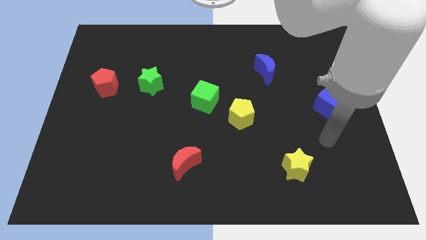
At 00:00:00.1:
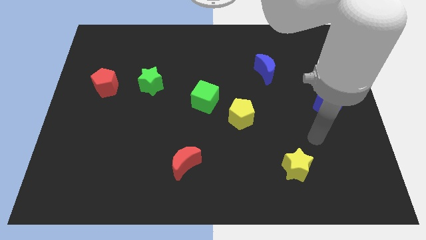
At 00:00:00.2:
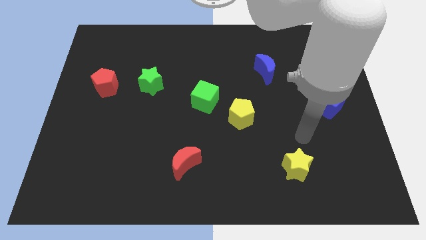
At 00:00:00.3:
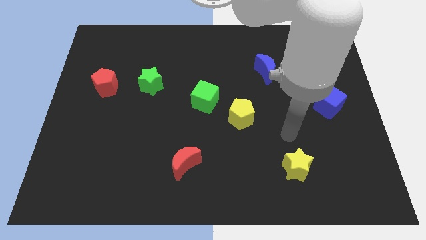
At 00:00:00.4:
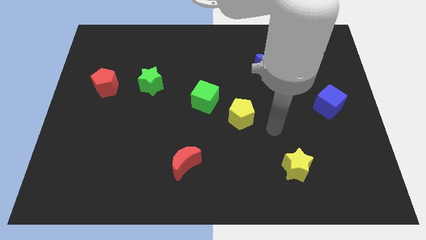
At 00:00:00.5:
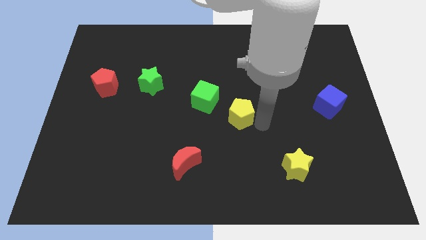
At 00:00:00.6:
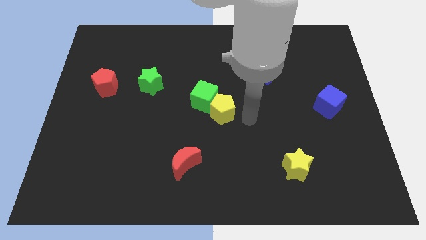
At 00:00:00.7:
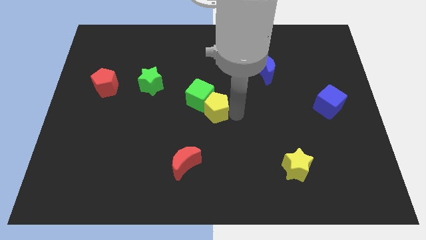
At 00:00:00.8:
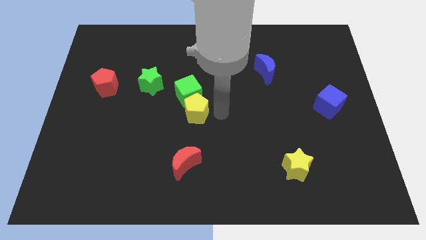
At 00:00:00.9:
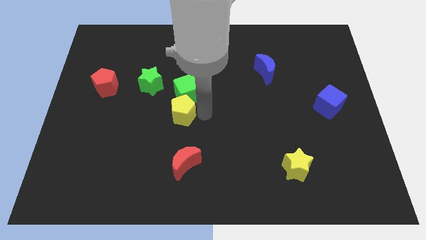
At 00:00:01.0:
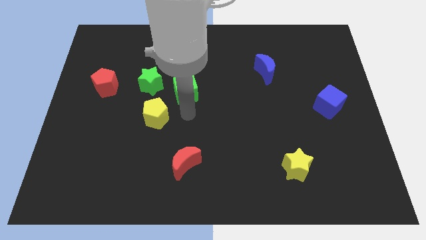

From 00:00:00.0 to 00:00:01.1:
move the green cube away from the yellow pentagon

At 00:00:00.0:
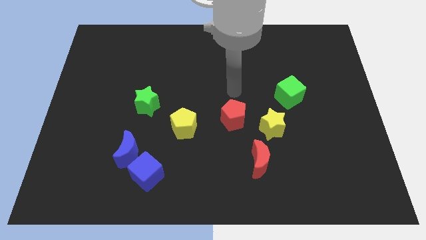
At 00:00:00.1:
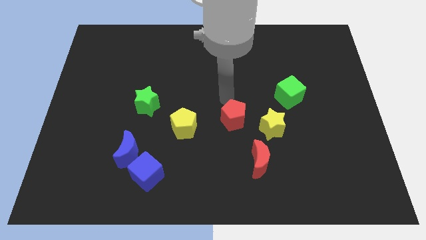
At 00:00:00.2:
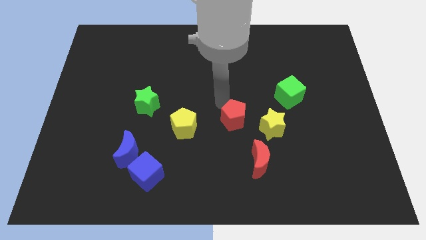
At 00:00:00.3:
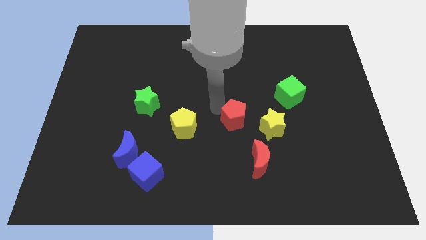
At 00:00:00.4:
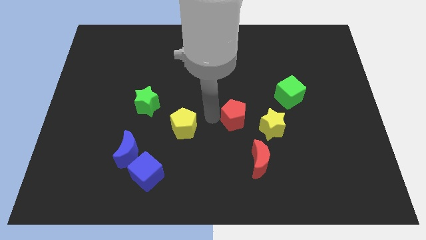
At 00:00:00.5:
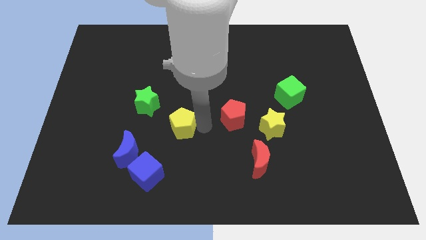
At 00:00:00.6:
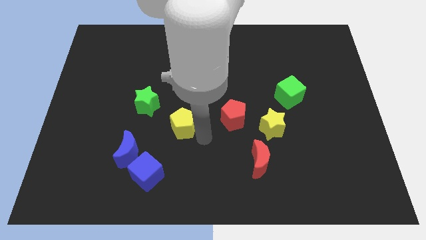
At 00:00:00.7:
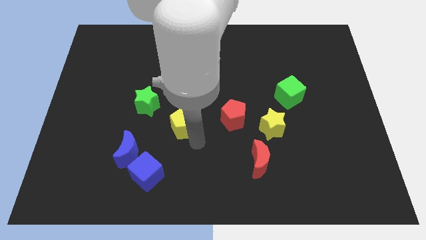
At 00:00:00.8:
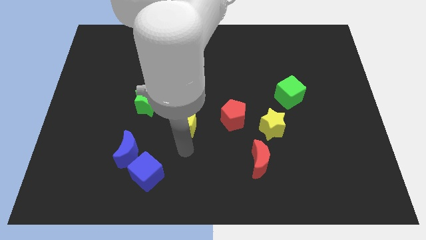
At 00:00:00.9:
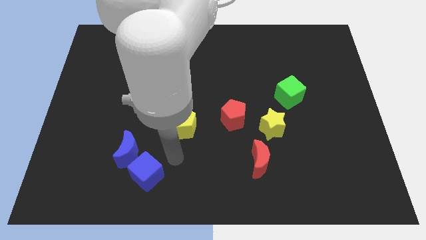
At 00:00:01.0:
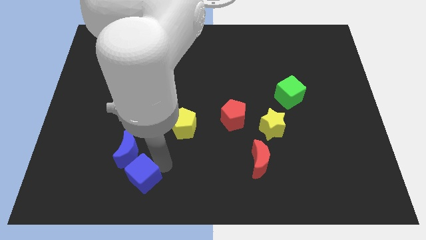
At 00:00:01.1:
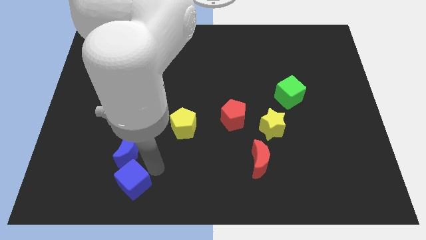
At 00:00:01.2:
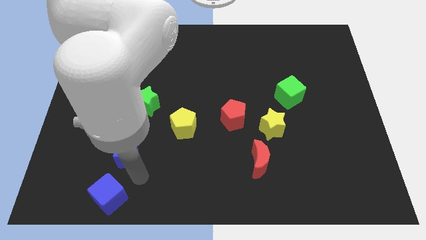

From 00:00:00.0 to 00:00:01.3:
move the blue moon away from the blue cube

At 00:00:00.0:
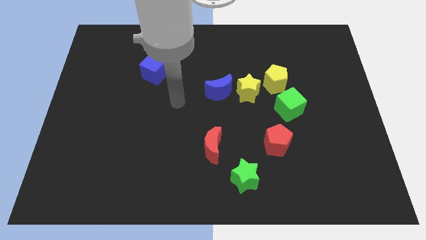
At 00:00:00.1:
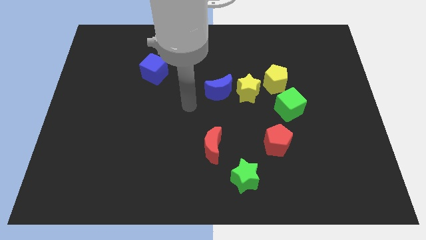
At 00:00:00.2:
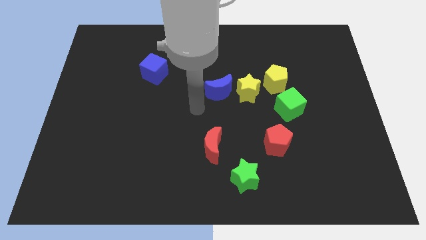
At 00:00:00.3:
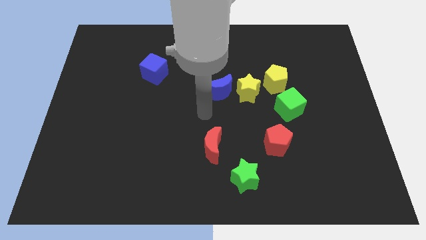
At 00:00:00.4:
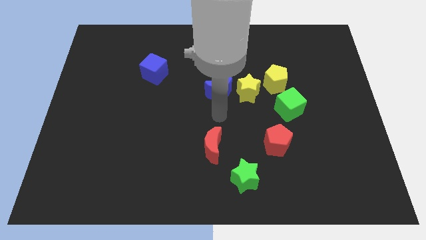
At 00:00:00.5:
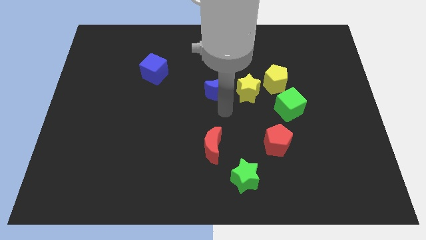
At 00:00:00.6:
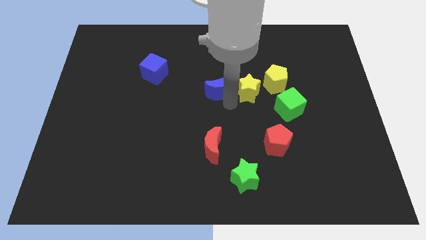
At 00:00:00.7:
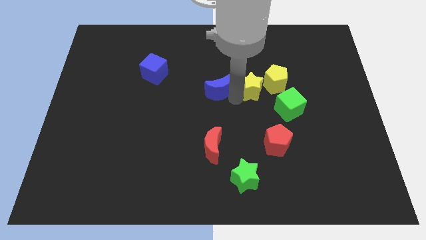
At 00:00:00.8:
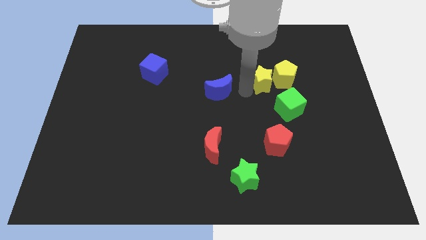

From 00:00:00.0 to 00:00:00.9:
move the blue moon away from the yellow star

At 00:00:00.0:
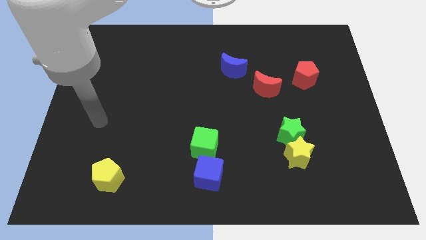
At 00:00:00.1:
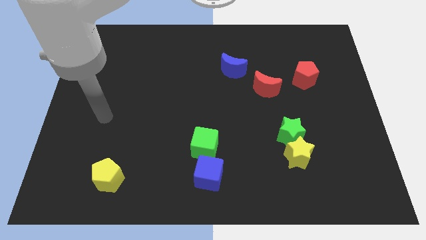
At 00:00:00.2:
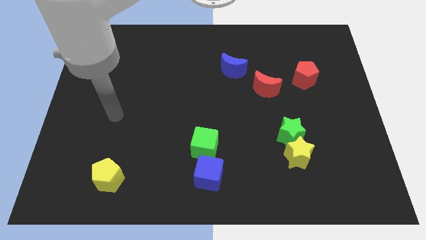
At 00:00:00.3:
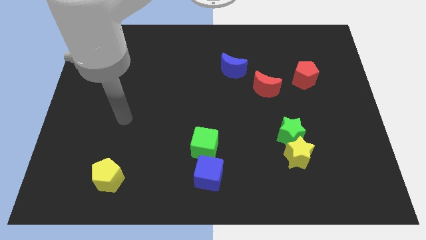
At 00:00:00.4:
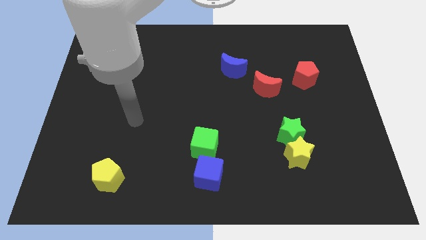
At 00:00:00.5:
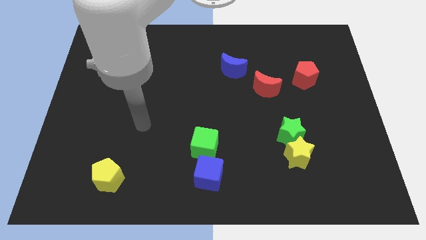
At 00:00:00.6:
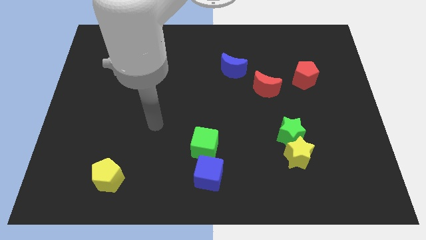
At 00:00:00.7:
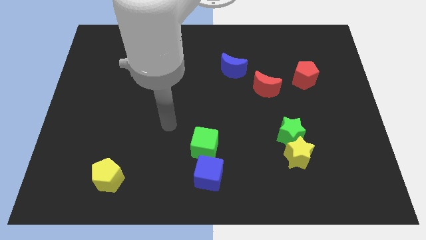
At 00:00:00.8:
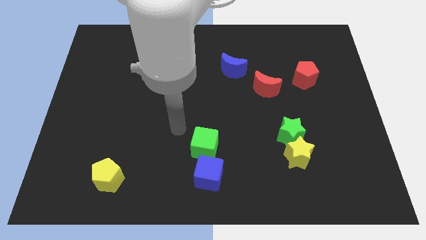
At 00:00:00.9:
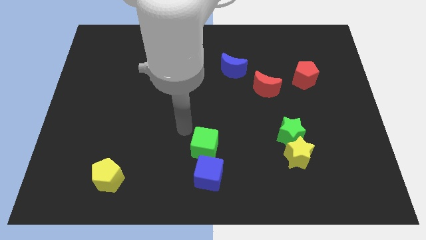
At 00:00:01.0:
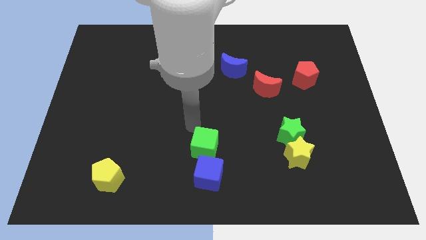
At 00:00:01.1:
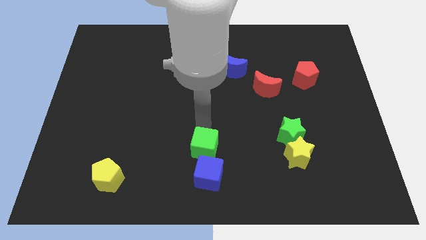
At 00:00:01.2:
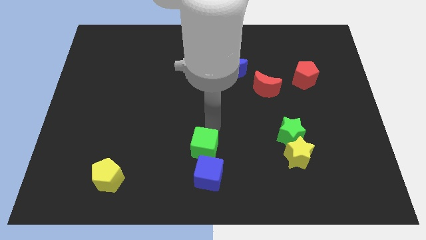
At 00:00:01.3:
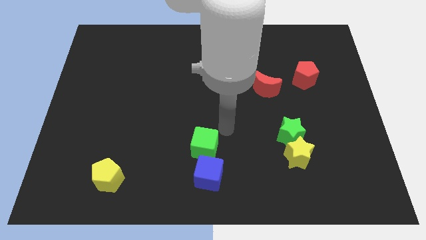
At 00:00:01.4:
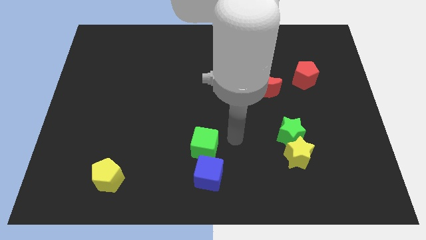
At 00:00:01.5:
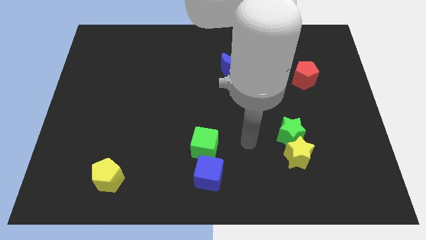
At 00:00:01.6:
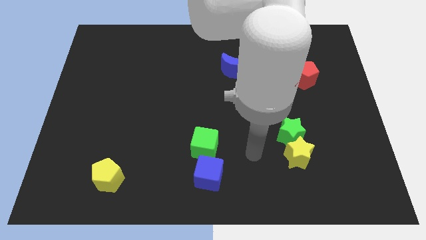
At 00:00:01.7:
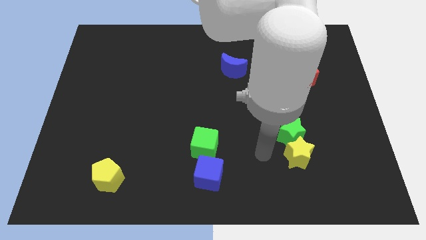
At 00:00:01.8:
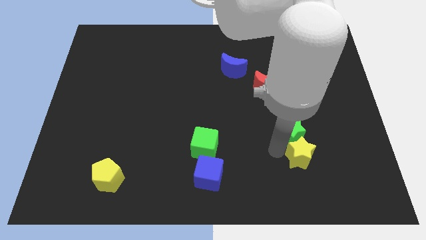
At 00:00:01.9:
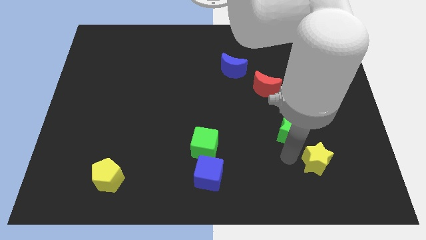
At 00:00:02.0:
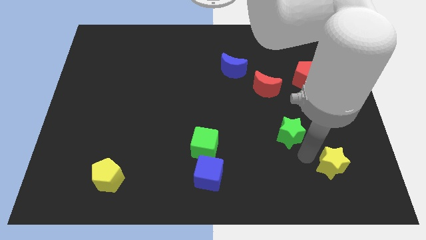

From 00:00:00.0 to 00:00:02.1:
move the green star away from the yellow star

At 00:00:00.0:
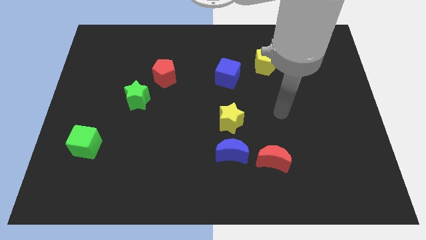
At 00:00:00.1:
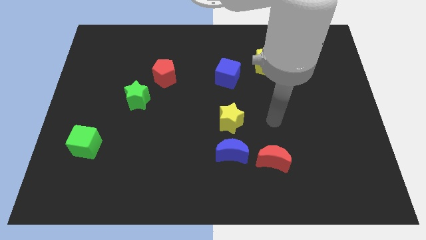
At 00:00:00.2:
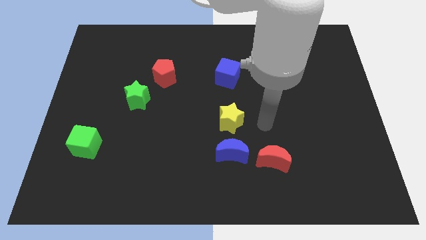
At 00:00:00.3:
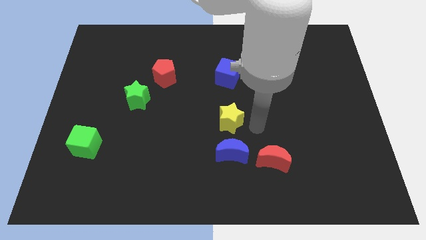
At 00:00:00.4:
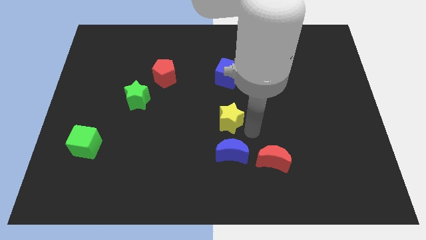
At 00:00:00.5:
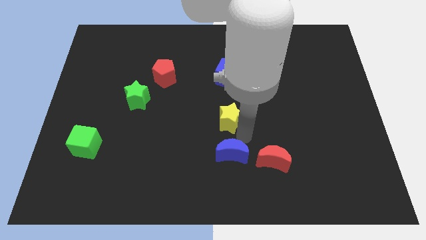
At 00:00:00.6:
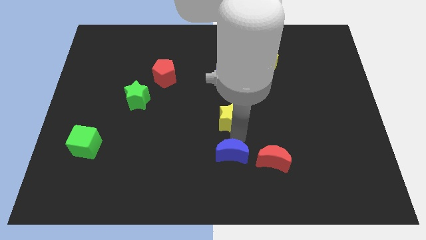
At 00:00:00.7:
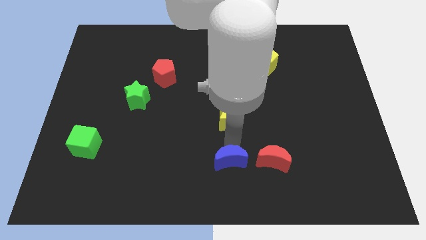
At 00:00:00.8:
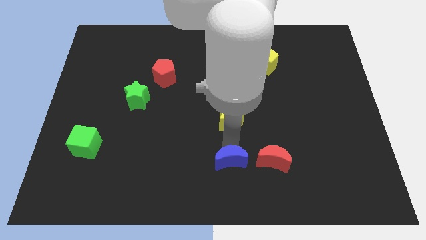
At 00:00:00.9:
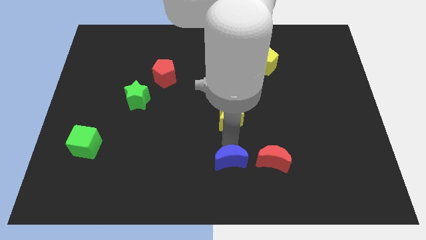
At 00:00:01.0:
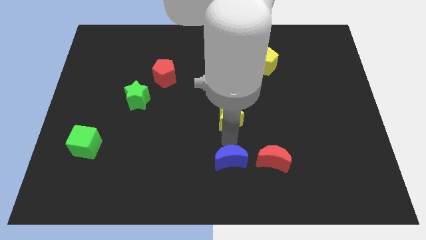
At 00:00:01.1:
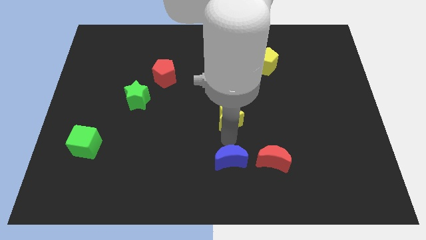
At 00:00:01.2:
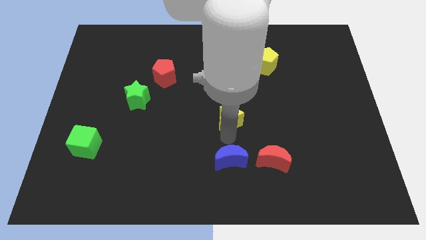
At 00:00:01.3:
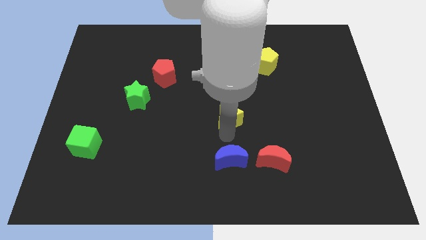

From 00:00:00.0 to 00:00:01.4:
pull the yellow star apart from the blue moon

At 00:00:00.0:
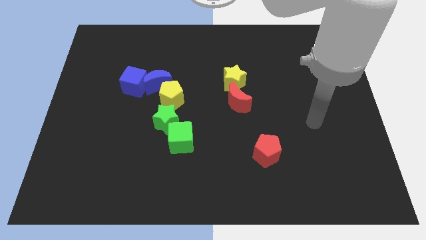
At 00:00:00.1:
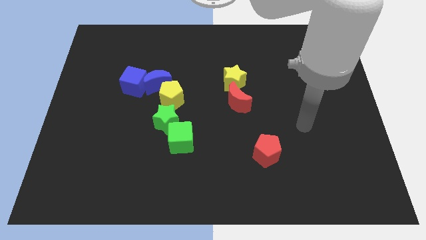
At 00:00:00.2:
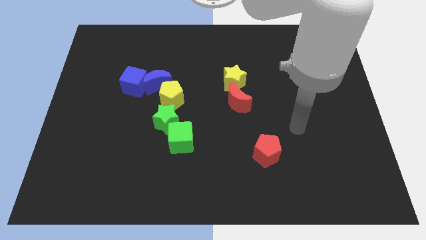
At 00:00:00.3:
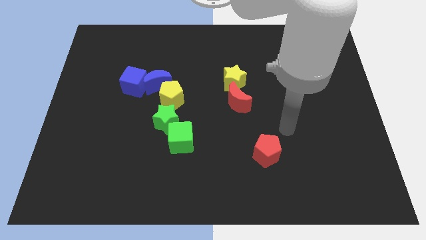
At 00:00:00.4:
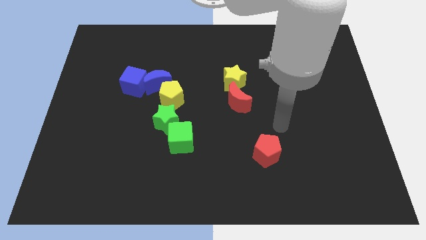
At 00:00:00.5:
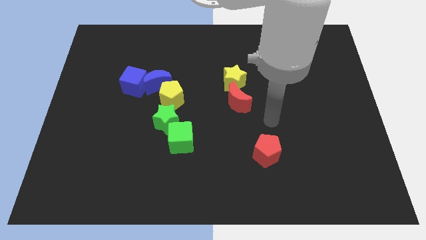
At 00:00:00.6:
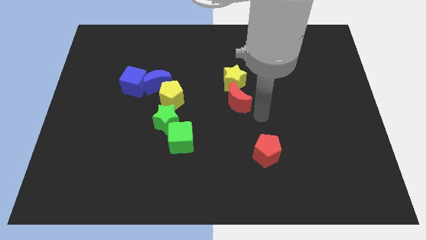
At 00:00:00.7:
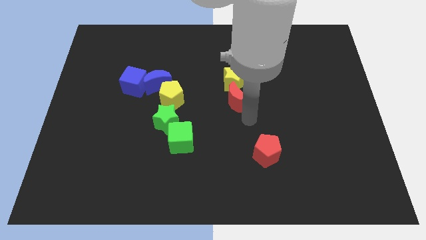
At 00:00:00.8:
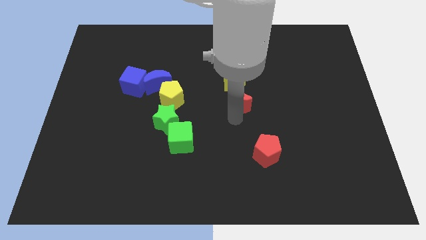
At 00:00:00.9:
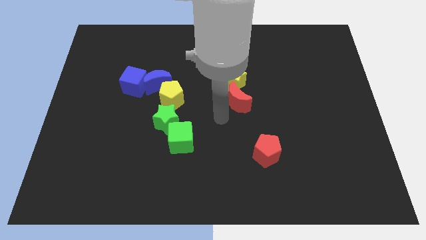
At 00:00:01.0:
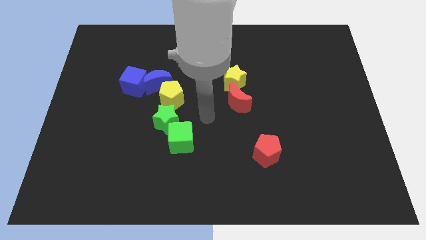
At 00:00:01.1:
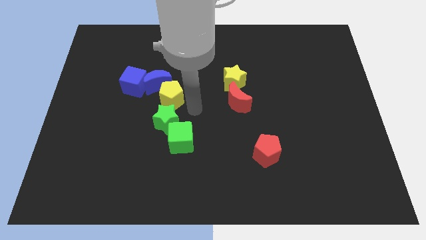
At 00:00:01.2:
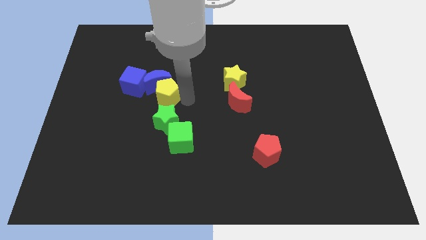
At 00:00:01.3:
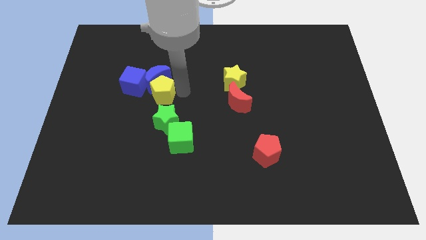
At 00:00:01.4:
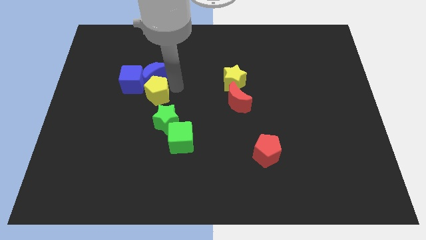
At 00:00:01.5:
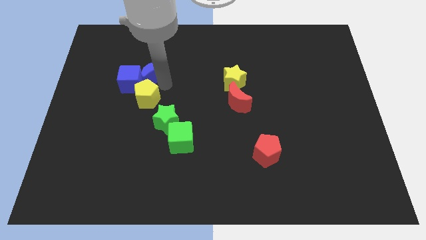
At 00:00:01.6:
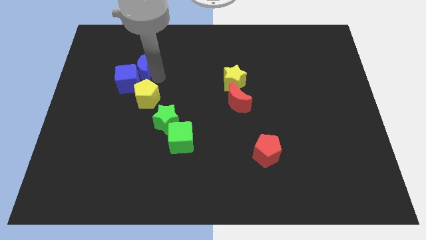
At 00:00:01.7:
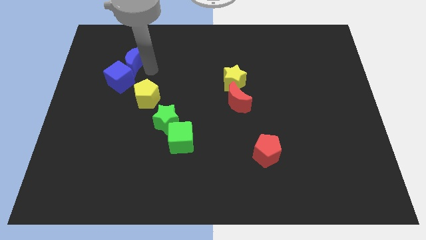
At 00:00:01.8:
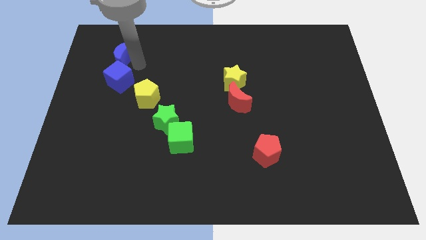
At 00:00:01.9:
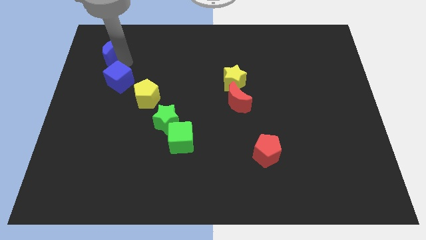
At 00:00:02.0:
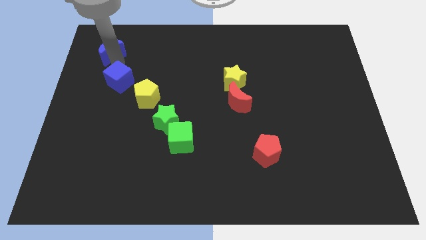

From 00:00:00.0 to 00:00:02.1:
separate the blue cube from the blue moon

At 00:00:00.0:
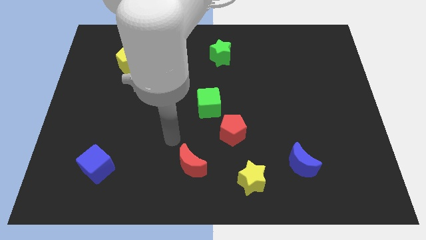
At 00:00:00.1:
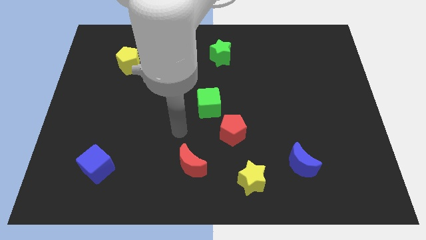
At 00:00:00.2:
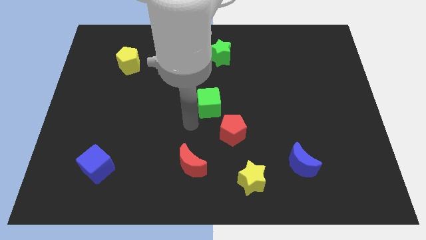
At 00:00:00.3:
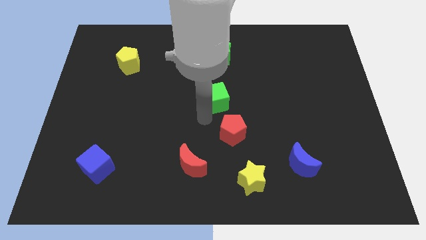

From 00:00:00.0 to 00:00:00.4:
move the red pentagon away from the green cube
